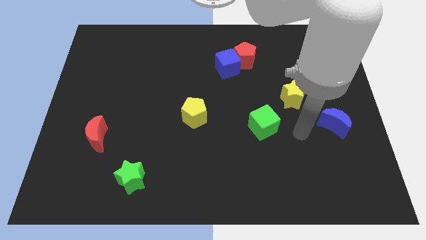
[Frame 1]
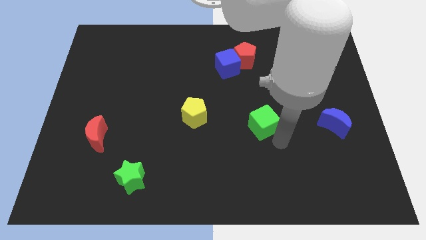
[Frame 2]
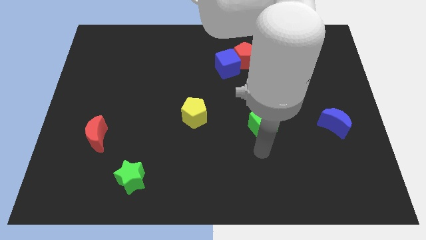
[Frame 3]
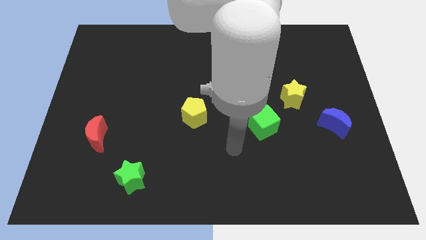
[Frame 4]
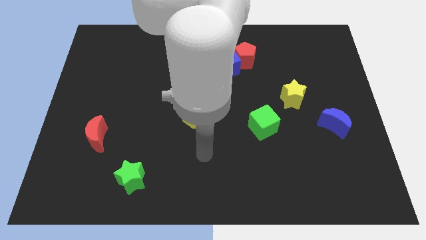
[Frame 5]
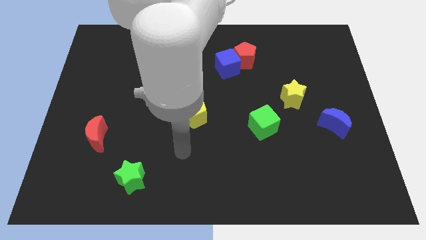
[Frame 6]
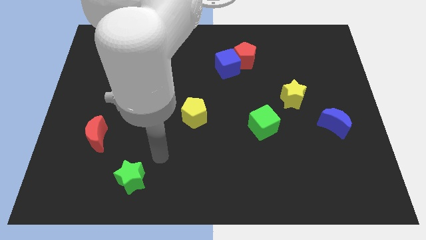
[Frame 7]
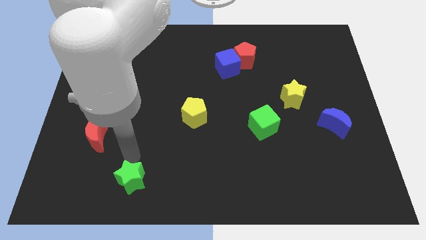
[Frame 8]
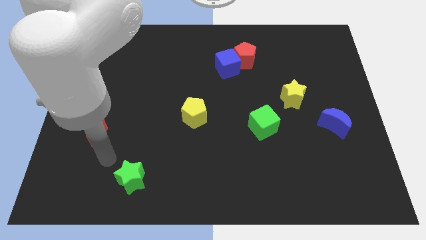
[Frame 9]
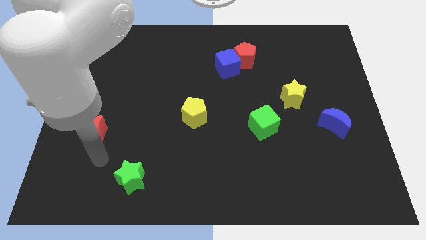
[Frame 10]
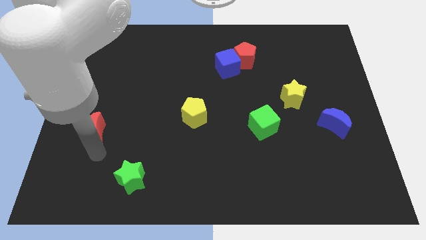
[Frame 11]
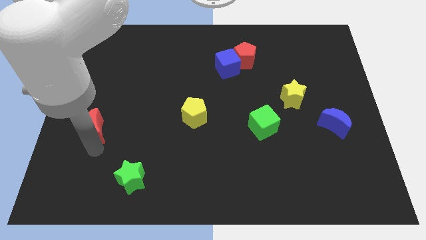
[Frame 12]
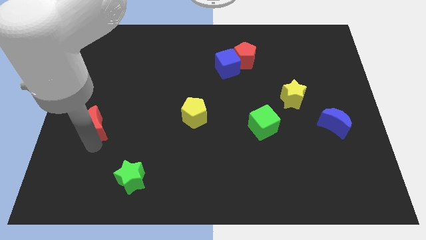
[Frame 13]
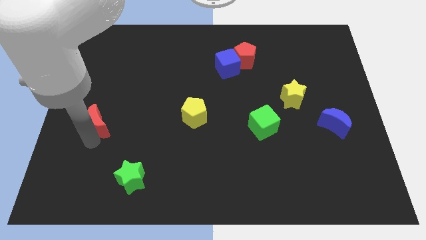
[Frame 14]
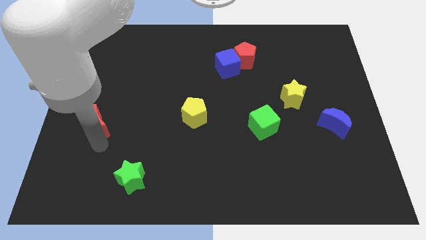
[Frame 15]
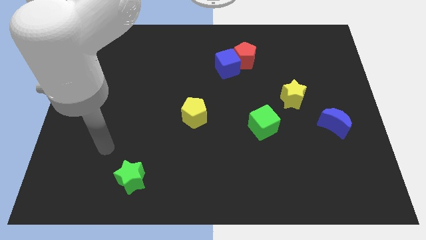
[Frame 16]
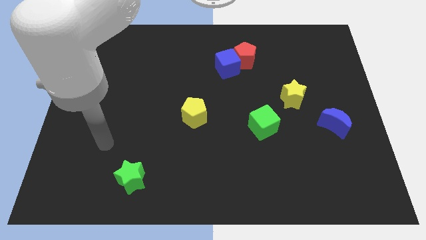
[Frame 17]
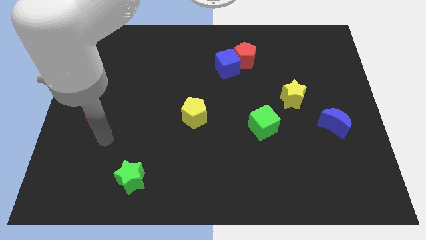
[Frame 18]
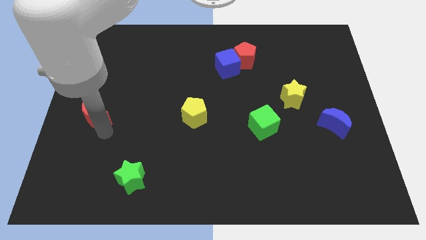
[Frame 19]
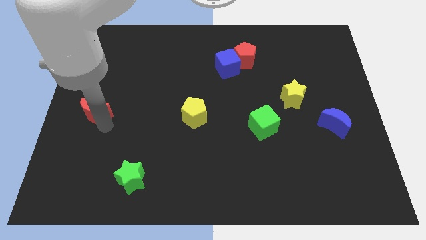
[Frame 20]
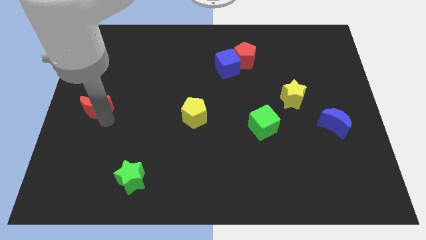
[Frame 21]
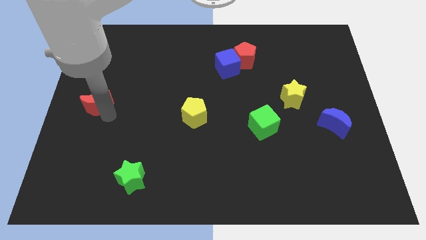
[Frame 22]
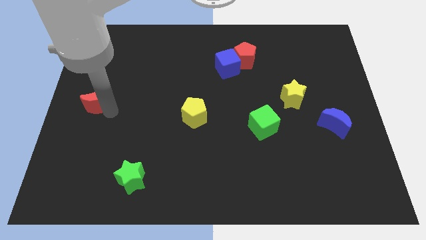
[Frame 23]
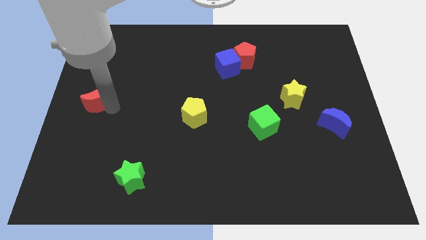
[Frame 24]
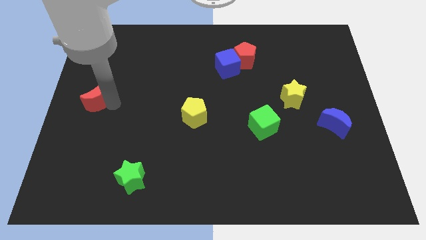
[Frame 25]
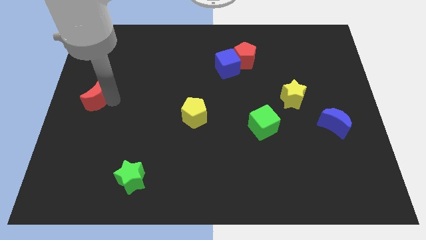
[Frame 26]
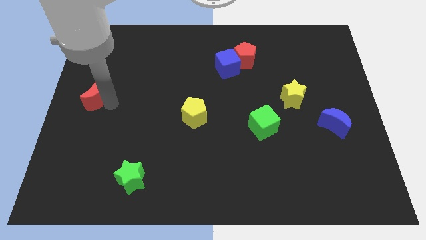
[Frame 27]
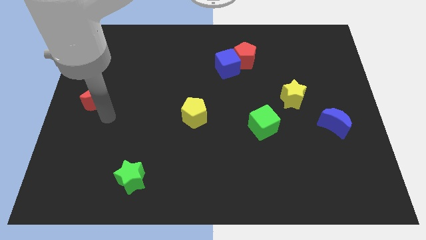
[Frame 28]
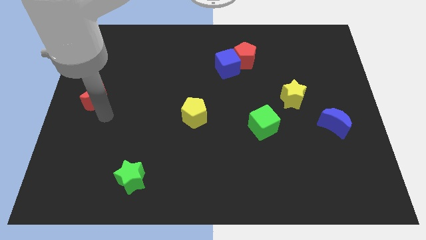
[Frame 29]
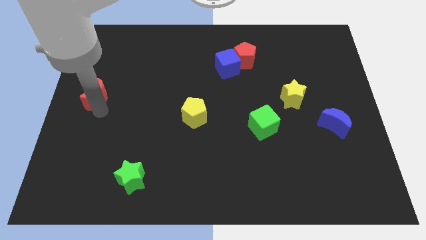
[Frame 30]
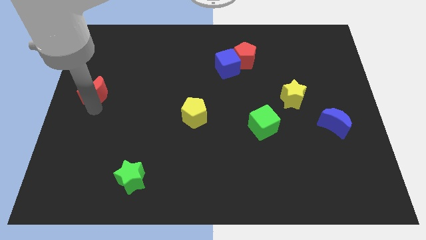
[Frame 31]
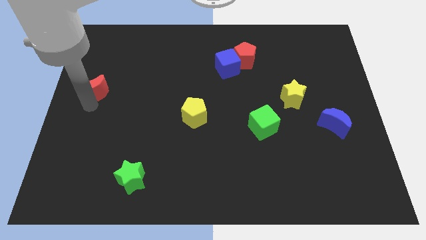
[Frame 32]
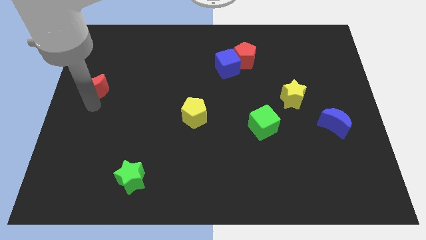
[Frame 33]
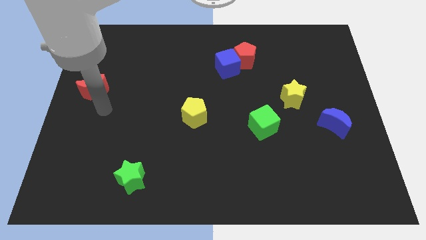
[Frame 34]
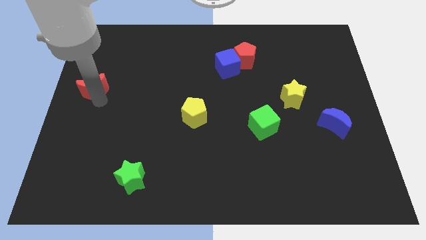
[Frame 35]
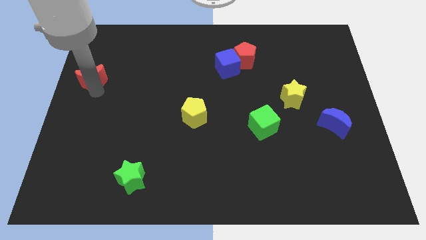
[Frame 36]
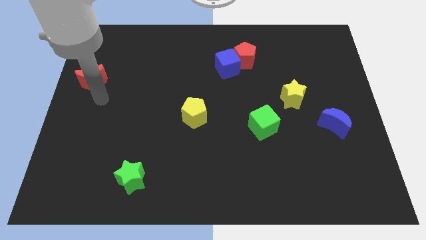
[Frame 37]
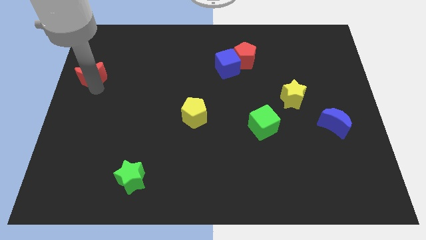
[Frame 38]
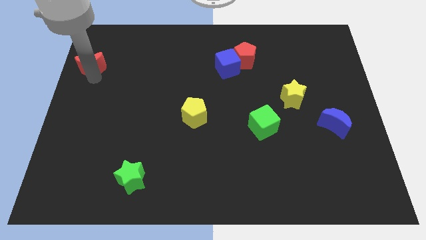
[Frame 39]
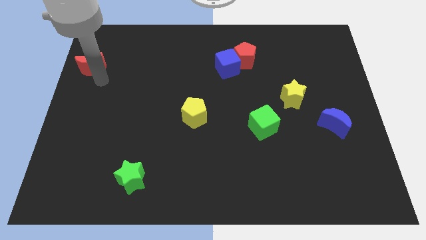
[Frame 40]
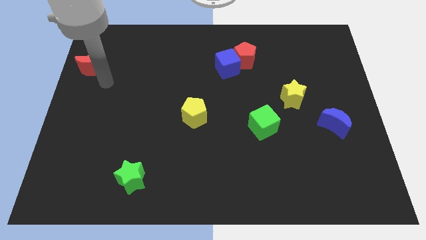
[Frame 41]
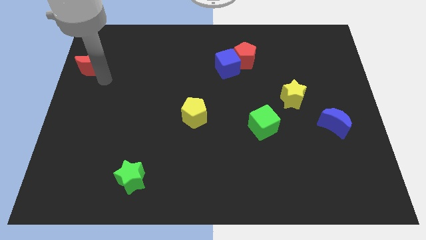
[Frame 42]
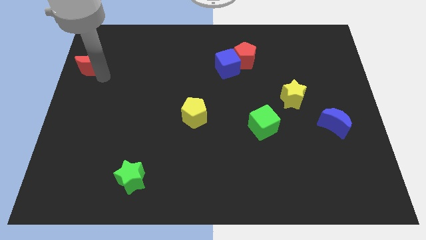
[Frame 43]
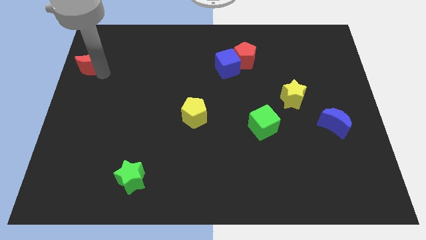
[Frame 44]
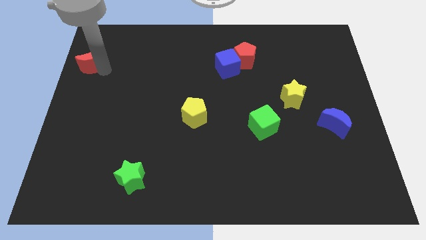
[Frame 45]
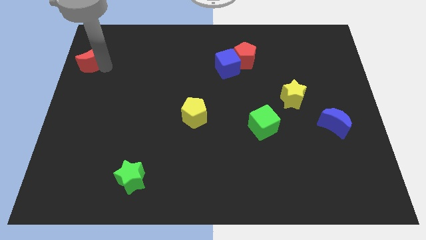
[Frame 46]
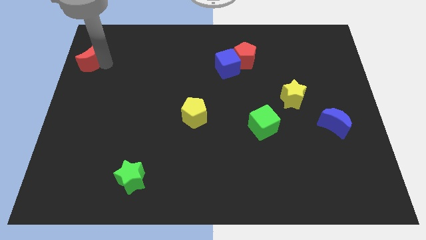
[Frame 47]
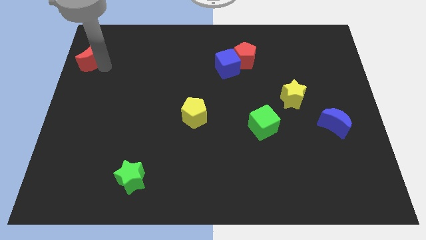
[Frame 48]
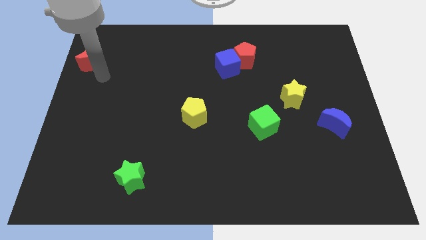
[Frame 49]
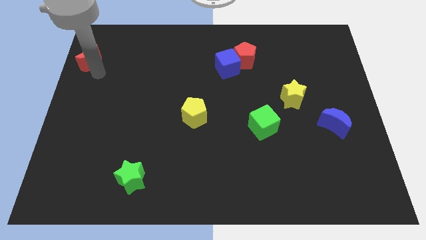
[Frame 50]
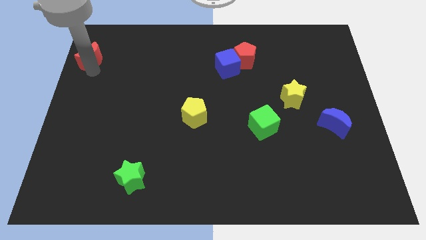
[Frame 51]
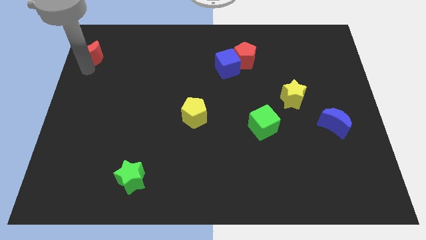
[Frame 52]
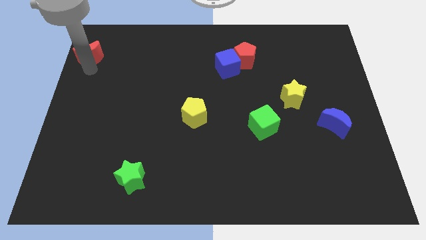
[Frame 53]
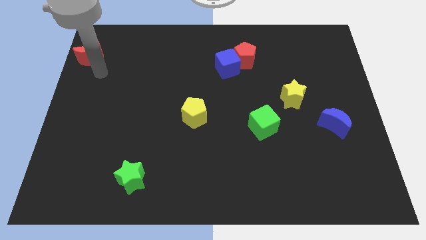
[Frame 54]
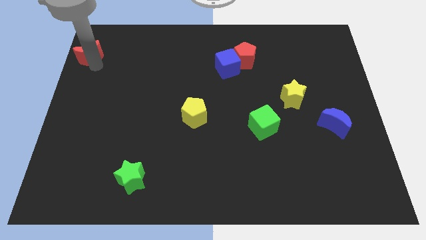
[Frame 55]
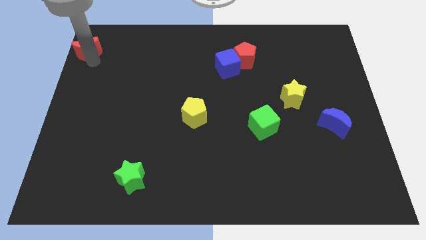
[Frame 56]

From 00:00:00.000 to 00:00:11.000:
slide the red moon to the top left of the board

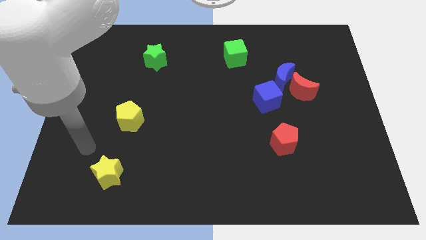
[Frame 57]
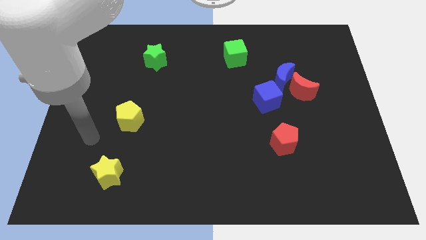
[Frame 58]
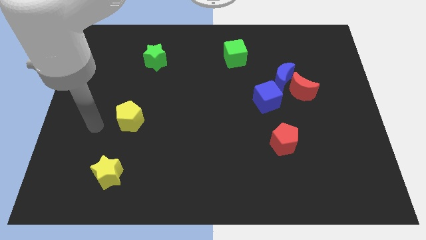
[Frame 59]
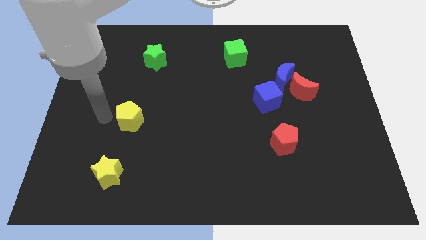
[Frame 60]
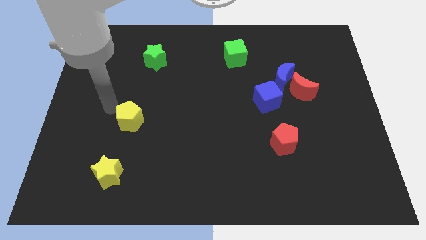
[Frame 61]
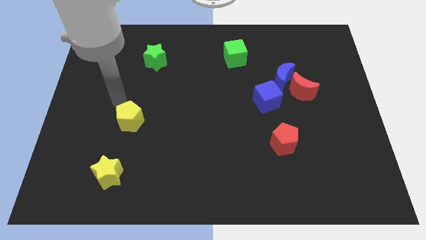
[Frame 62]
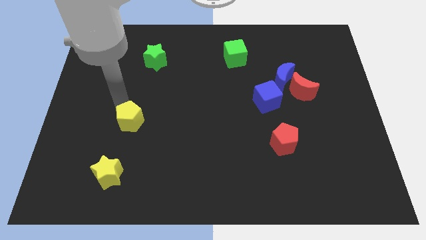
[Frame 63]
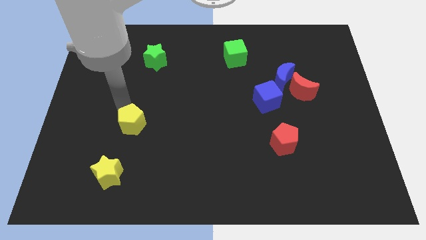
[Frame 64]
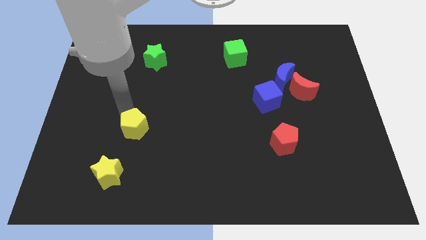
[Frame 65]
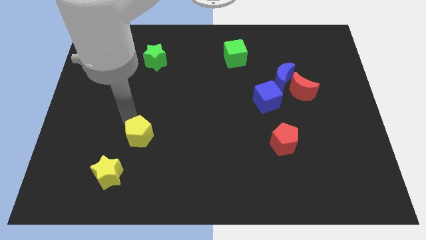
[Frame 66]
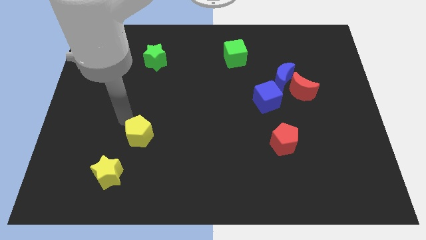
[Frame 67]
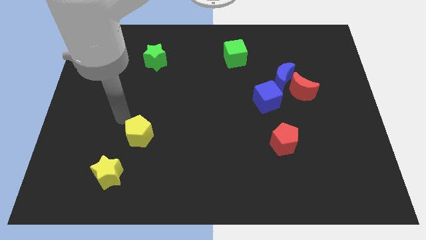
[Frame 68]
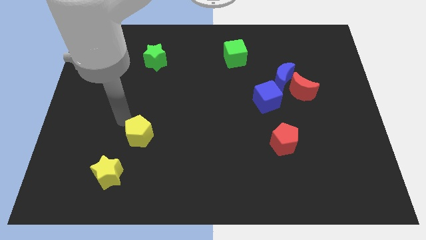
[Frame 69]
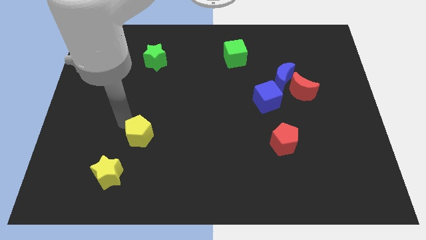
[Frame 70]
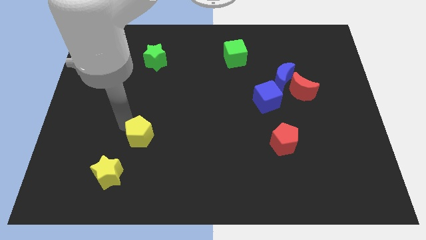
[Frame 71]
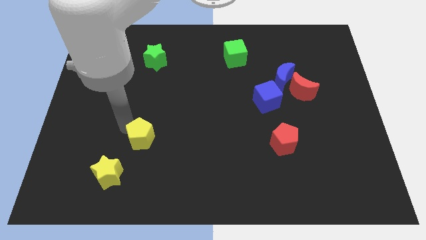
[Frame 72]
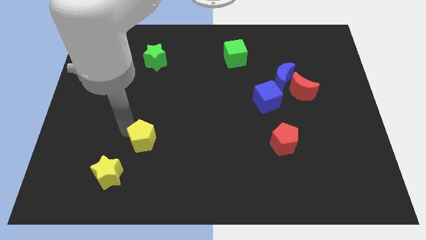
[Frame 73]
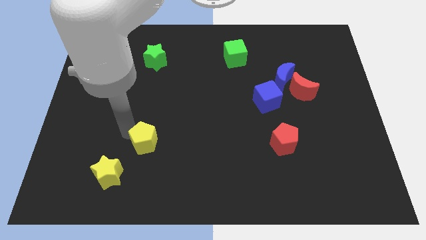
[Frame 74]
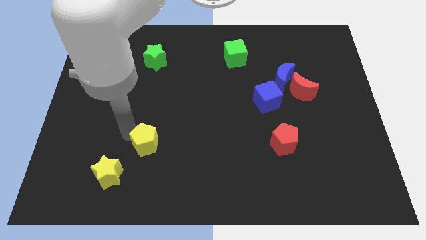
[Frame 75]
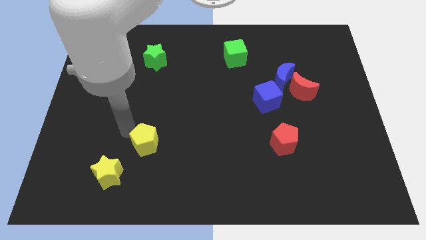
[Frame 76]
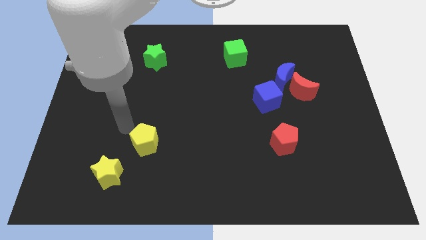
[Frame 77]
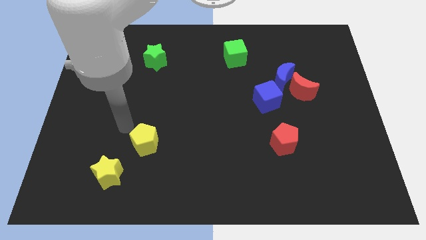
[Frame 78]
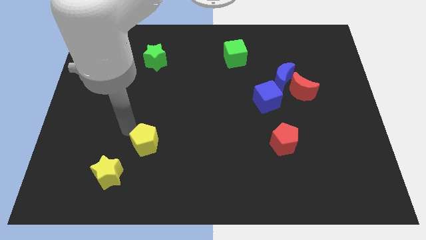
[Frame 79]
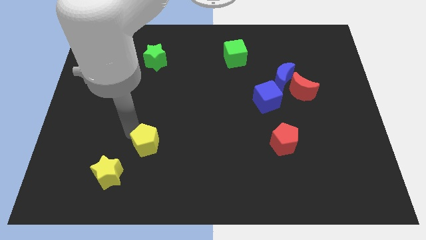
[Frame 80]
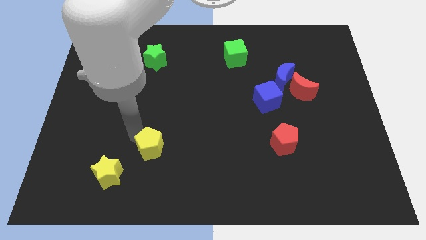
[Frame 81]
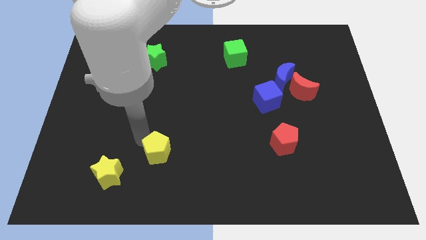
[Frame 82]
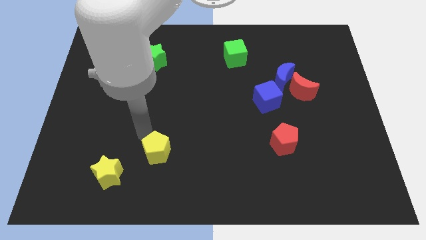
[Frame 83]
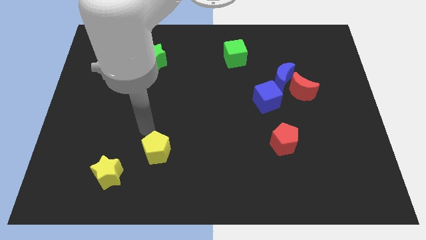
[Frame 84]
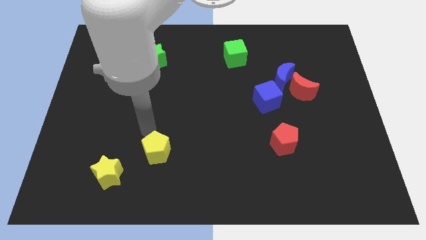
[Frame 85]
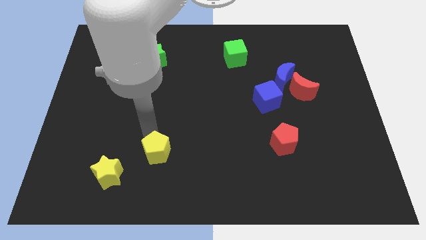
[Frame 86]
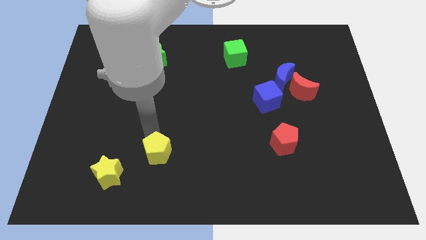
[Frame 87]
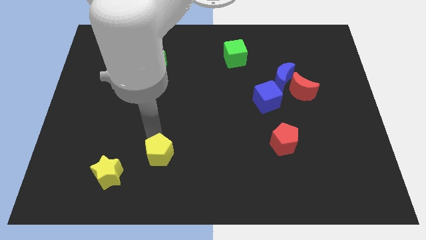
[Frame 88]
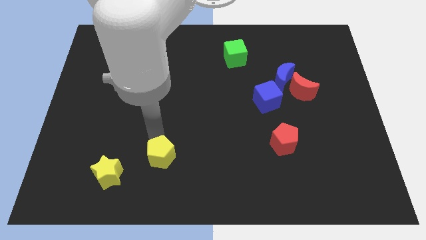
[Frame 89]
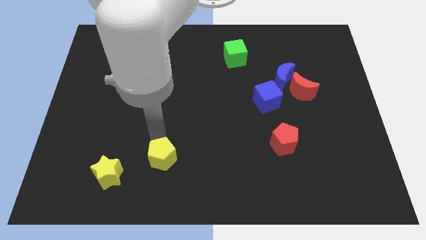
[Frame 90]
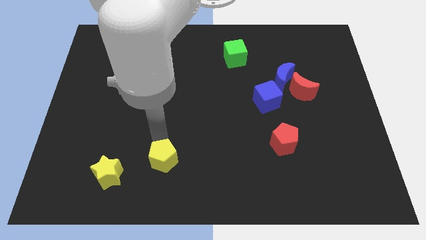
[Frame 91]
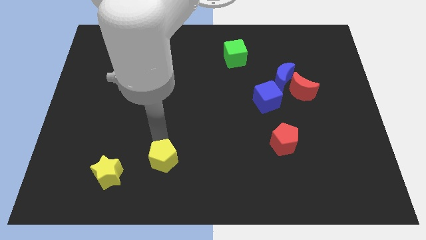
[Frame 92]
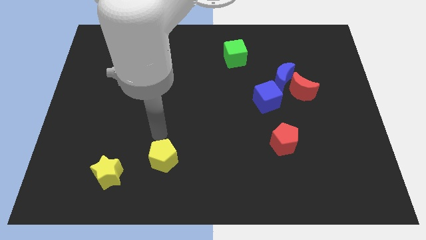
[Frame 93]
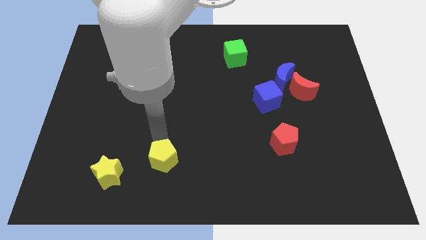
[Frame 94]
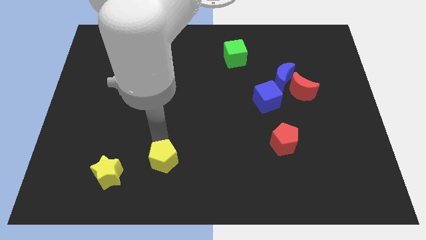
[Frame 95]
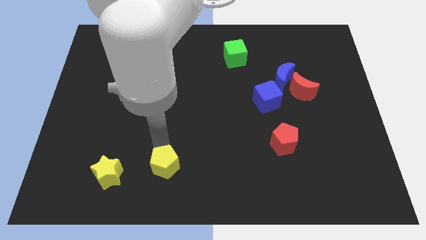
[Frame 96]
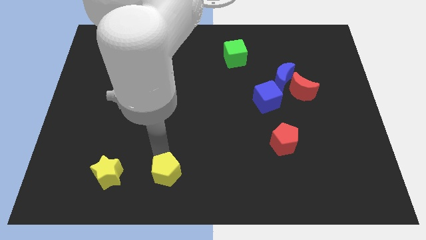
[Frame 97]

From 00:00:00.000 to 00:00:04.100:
put the yellow pentagon to the bottom side
